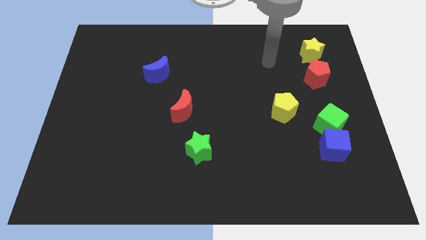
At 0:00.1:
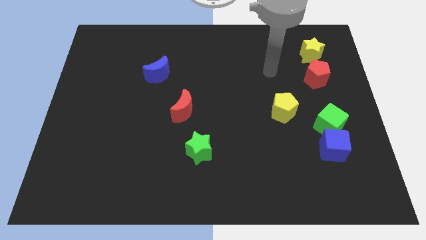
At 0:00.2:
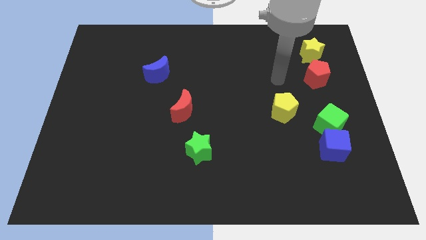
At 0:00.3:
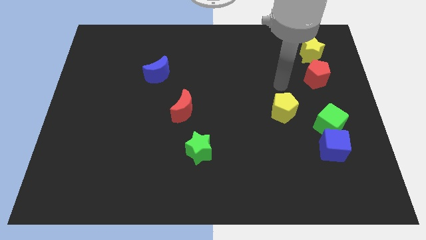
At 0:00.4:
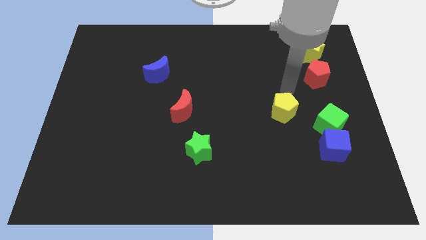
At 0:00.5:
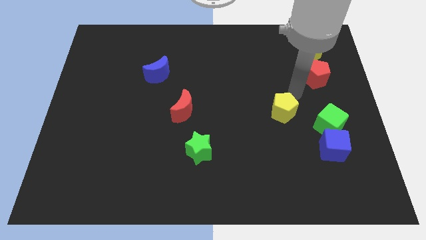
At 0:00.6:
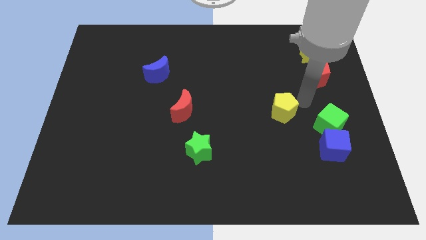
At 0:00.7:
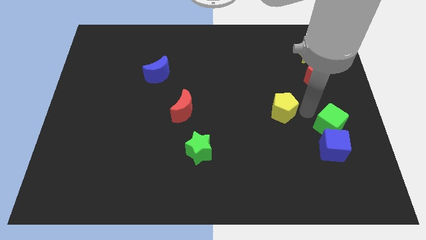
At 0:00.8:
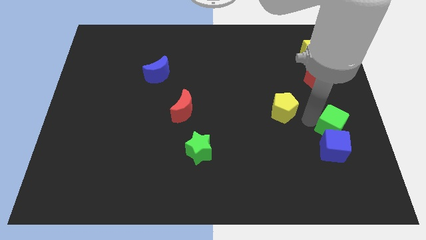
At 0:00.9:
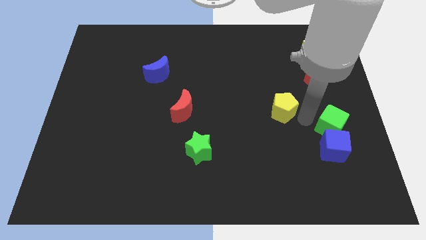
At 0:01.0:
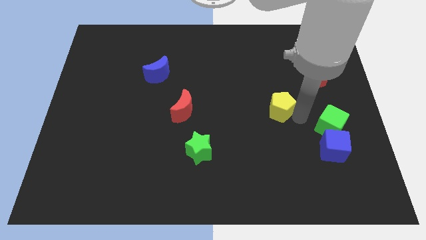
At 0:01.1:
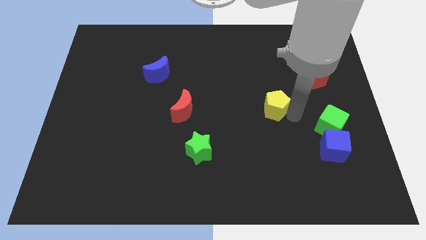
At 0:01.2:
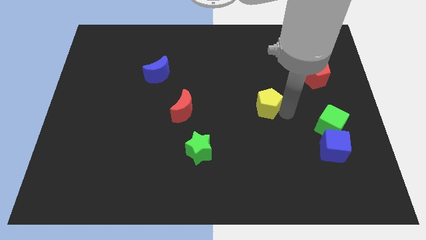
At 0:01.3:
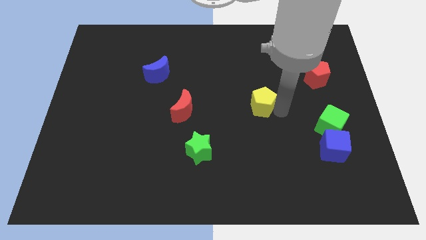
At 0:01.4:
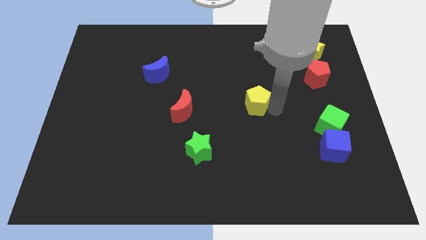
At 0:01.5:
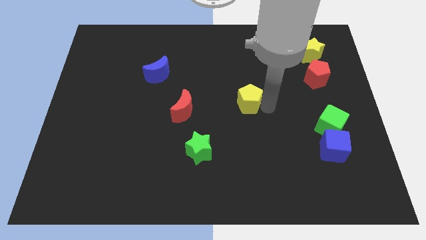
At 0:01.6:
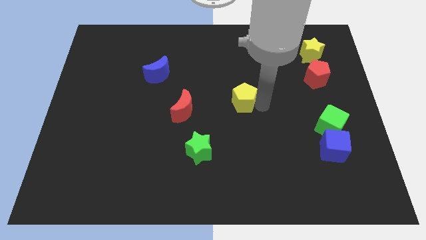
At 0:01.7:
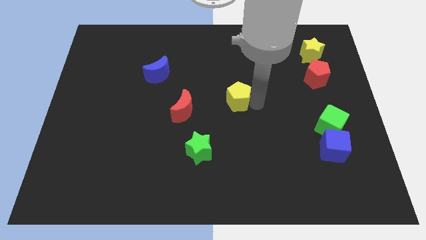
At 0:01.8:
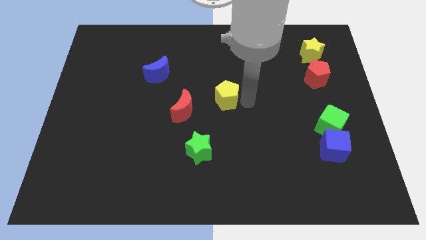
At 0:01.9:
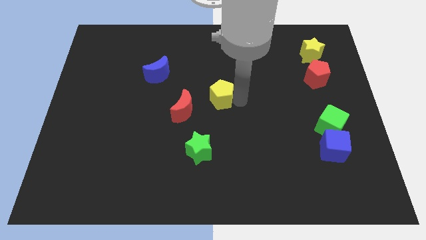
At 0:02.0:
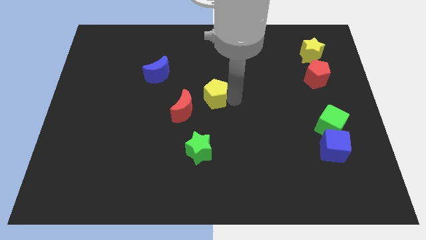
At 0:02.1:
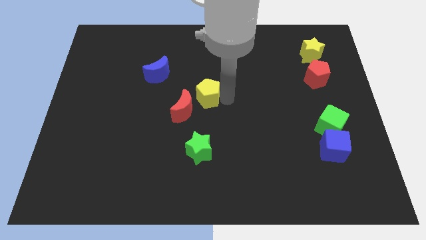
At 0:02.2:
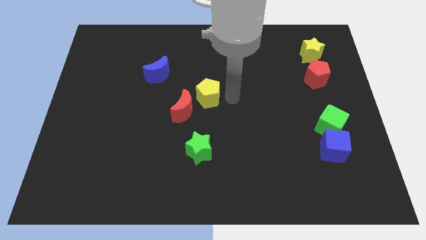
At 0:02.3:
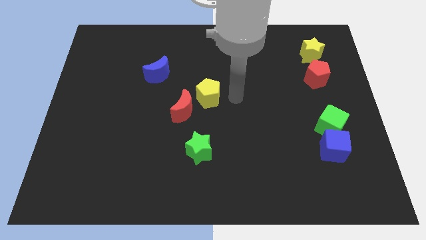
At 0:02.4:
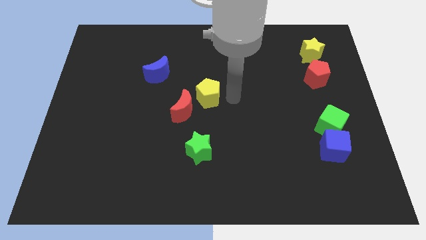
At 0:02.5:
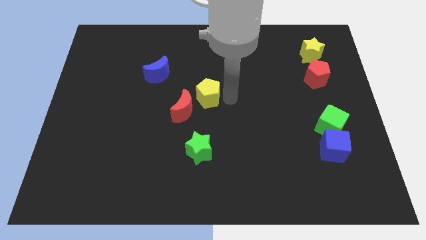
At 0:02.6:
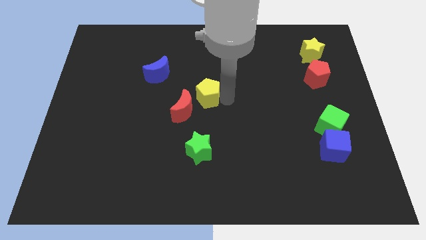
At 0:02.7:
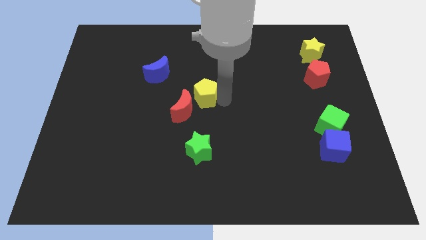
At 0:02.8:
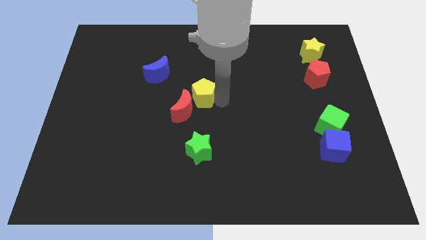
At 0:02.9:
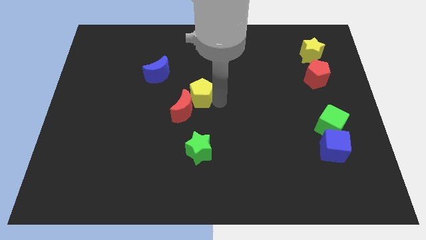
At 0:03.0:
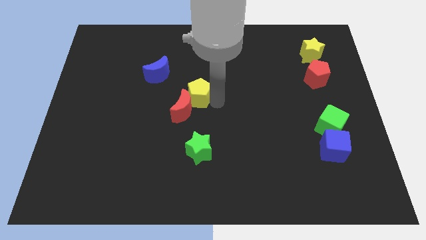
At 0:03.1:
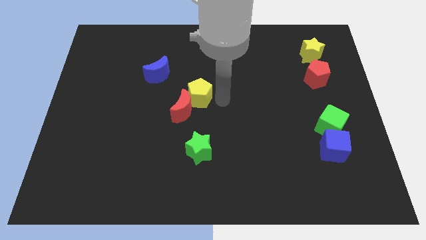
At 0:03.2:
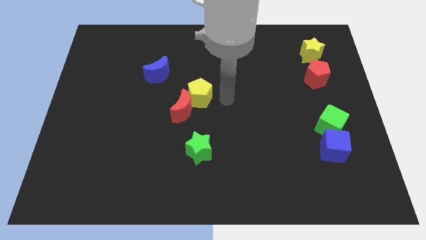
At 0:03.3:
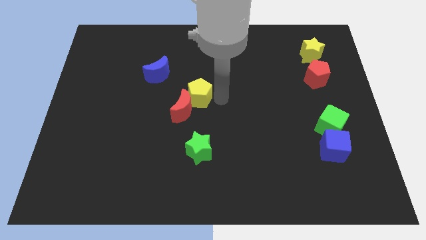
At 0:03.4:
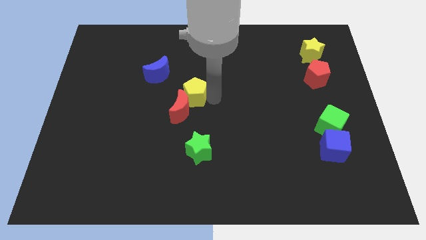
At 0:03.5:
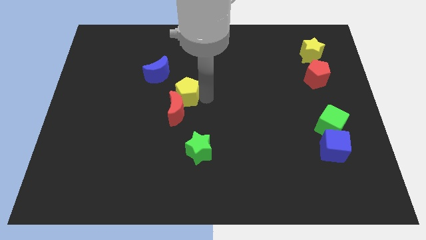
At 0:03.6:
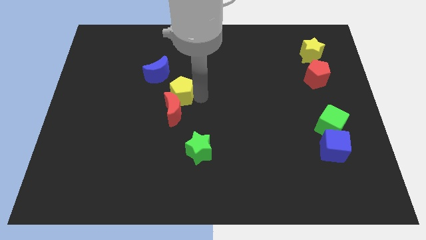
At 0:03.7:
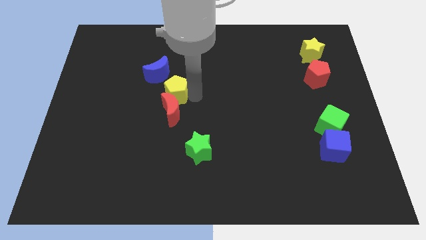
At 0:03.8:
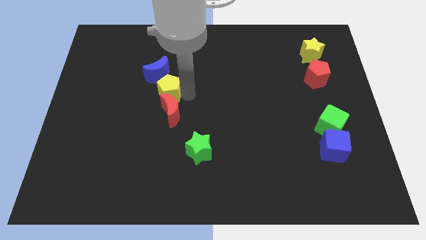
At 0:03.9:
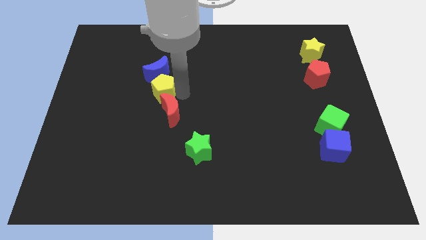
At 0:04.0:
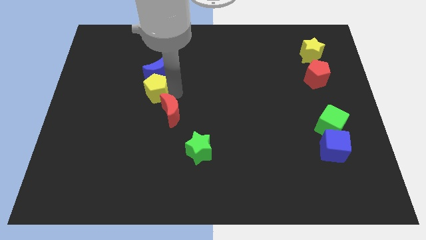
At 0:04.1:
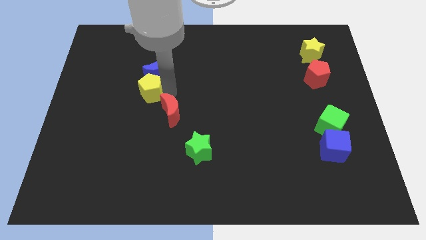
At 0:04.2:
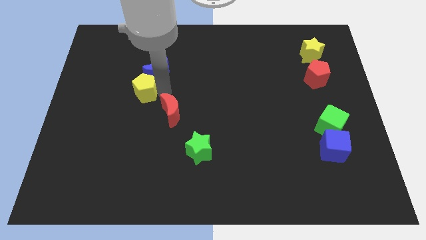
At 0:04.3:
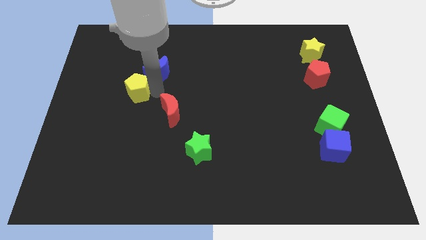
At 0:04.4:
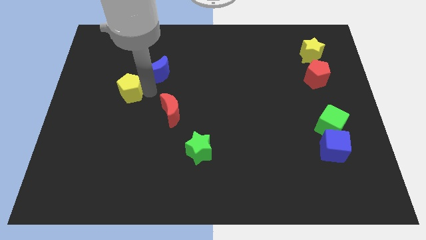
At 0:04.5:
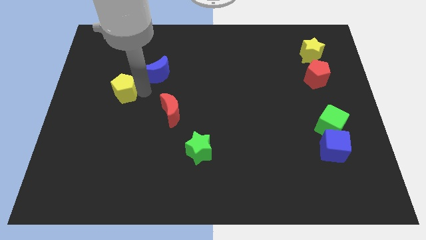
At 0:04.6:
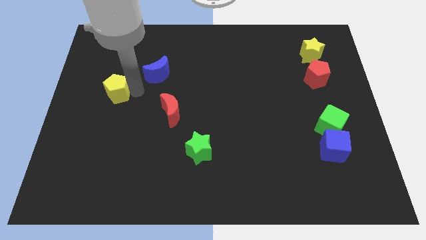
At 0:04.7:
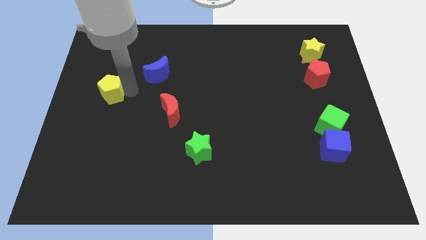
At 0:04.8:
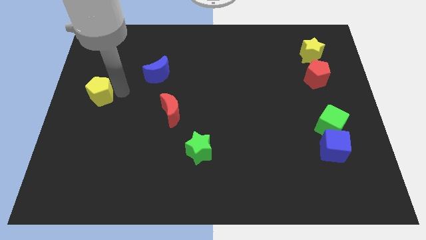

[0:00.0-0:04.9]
put the yellow pentagon to the left side of the board

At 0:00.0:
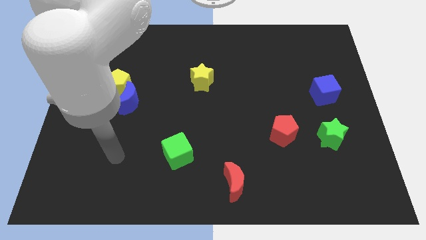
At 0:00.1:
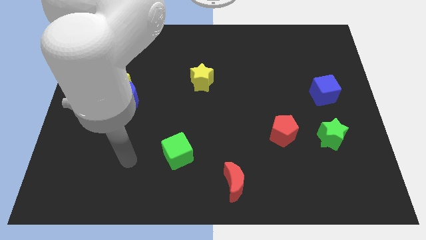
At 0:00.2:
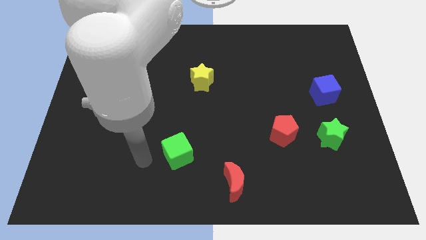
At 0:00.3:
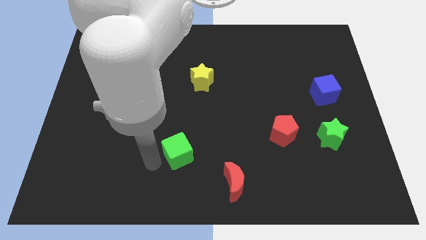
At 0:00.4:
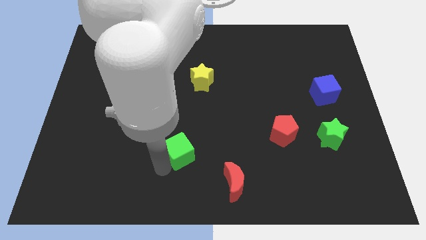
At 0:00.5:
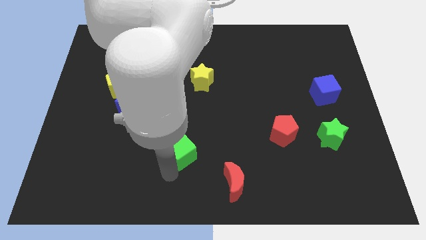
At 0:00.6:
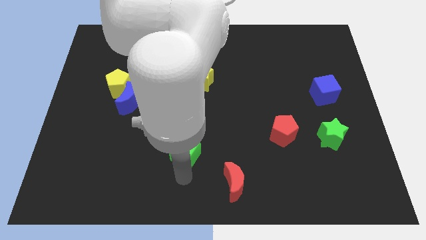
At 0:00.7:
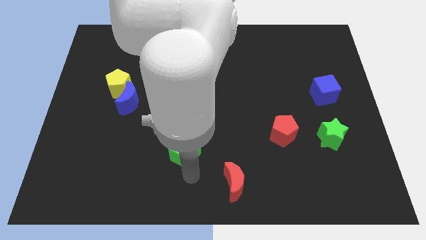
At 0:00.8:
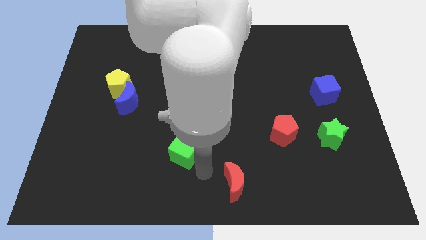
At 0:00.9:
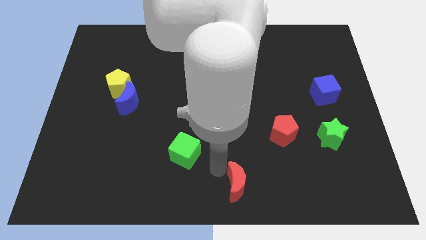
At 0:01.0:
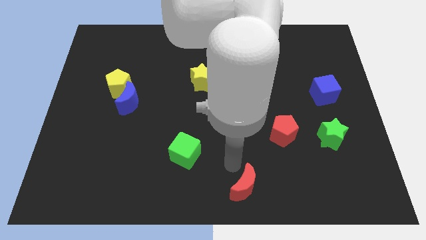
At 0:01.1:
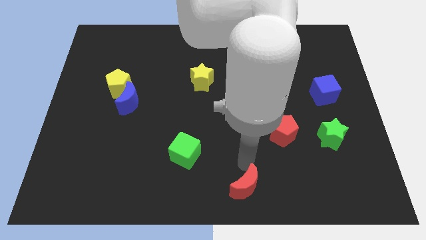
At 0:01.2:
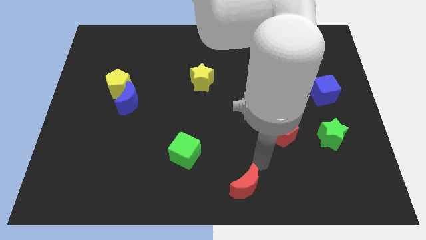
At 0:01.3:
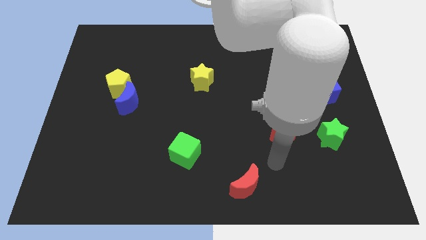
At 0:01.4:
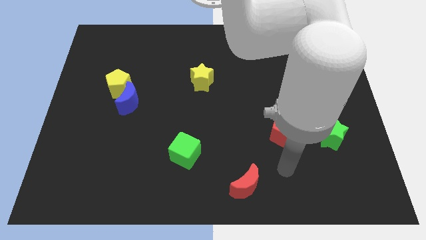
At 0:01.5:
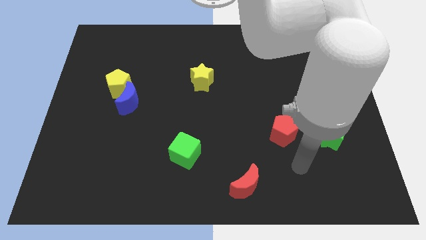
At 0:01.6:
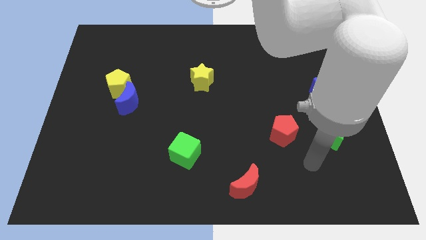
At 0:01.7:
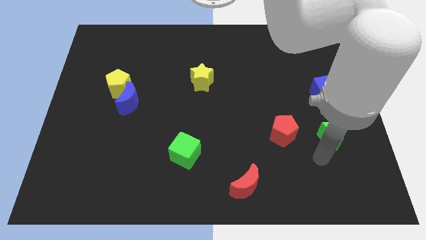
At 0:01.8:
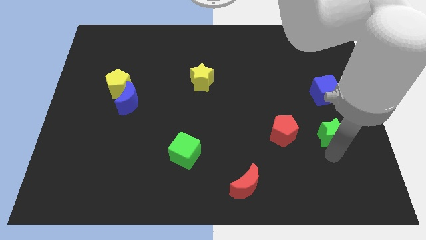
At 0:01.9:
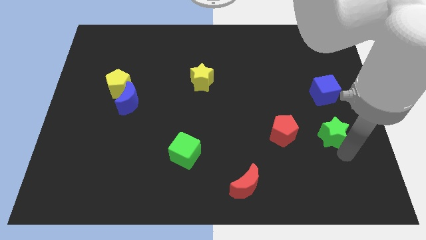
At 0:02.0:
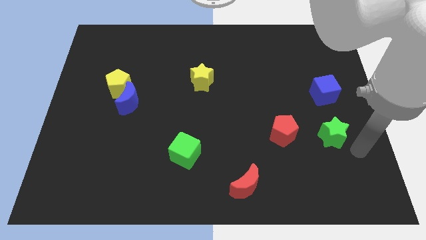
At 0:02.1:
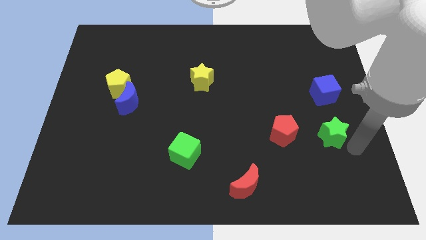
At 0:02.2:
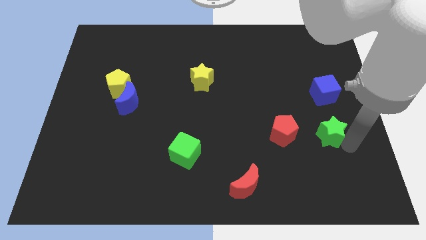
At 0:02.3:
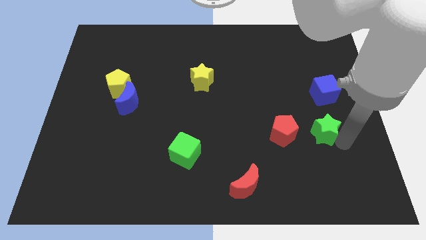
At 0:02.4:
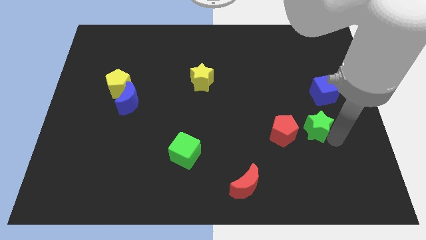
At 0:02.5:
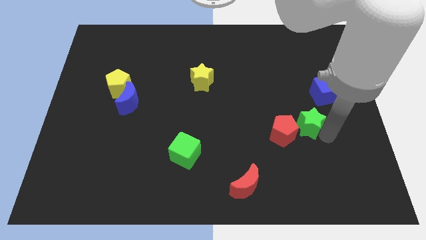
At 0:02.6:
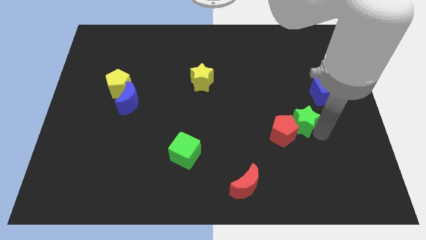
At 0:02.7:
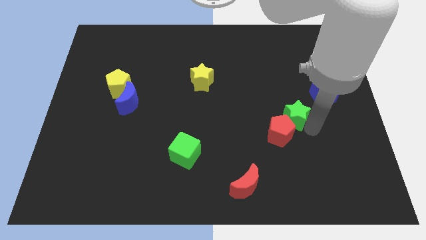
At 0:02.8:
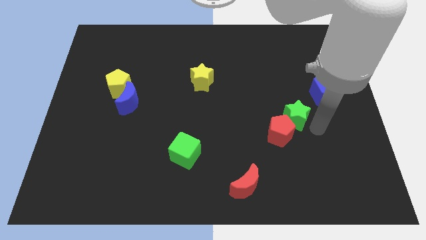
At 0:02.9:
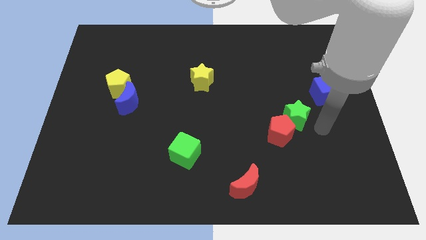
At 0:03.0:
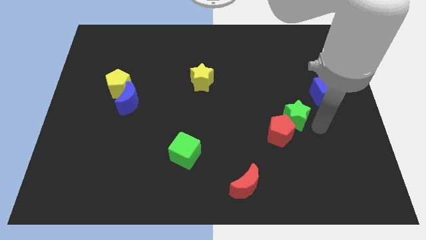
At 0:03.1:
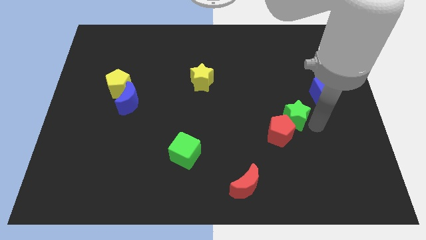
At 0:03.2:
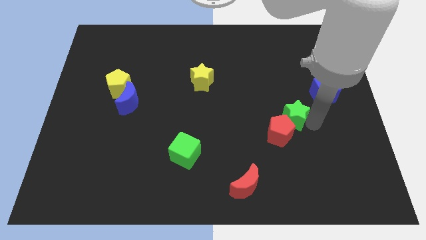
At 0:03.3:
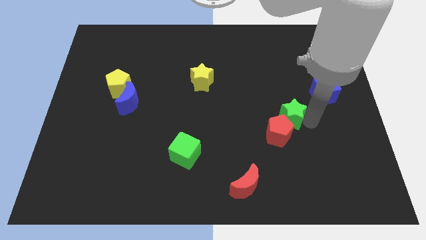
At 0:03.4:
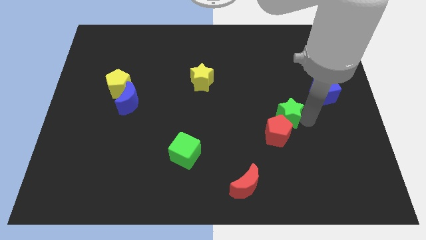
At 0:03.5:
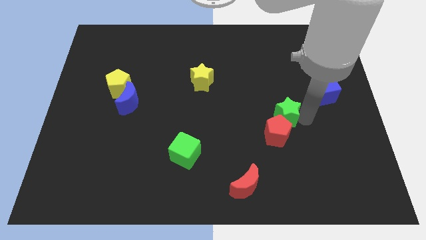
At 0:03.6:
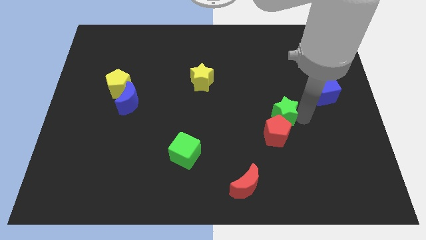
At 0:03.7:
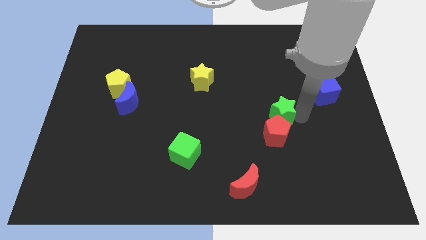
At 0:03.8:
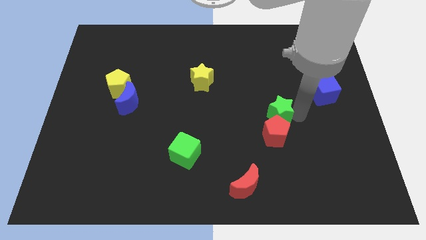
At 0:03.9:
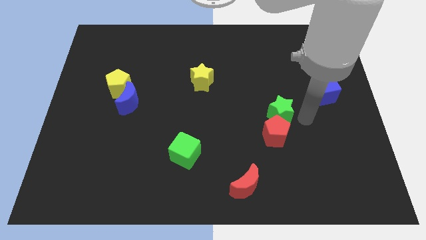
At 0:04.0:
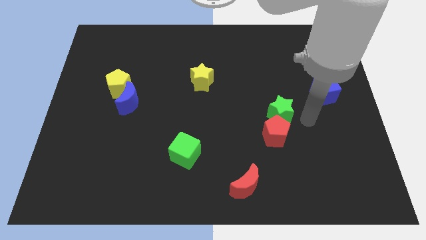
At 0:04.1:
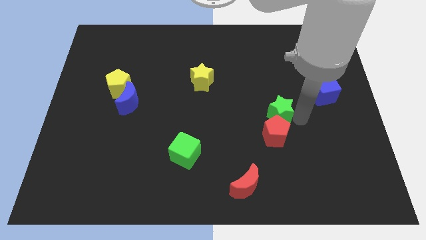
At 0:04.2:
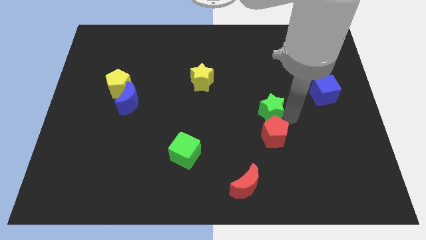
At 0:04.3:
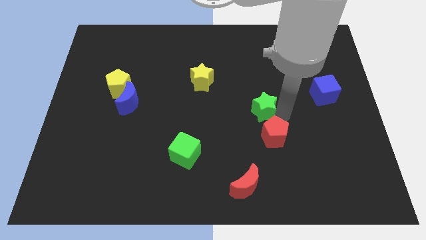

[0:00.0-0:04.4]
put the green star to the center
